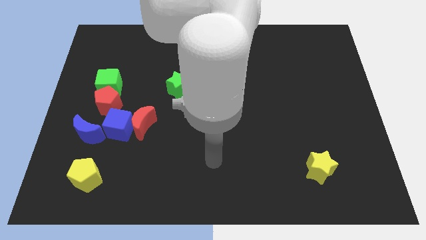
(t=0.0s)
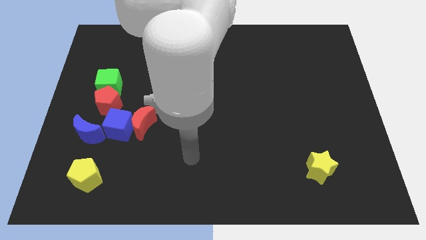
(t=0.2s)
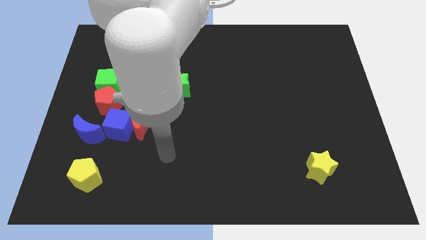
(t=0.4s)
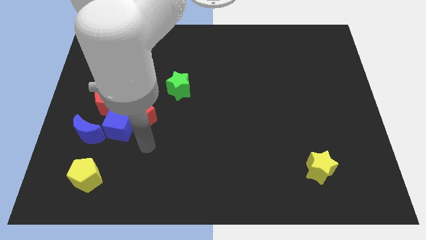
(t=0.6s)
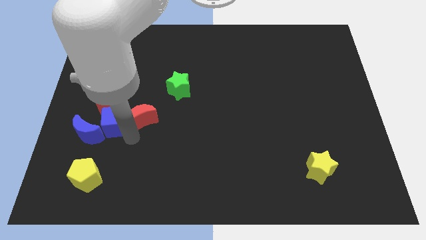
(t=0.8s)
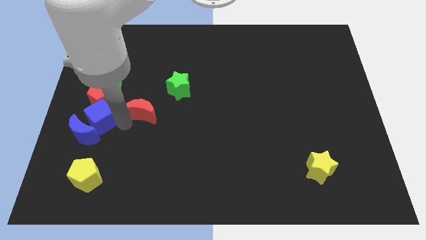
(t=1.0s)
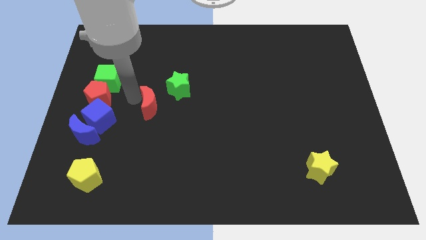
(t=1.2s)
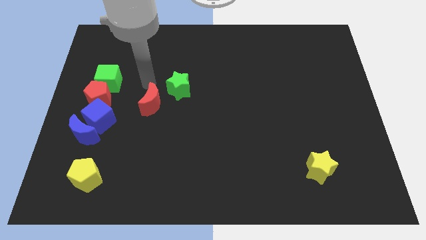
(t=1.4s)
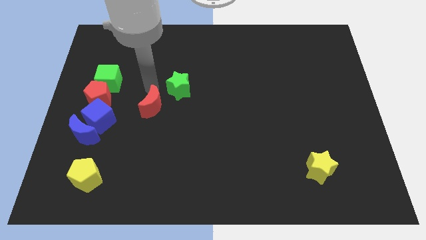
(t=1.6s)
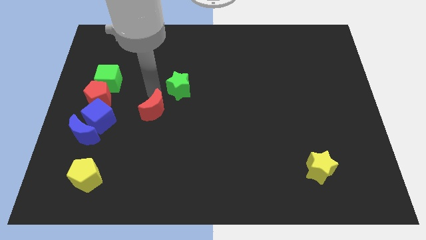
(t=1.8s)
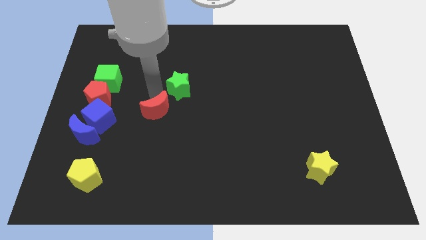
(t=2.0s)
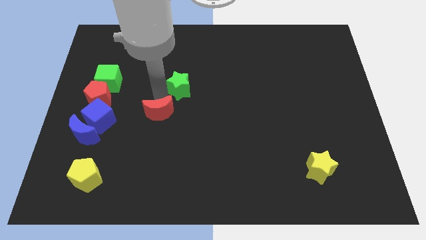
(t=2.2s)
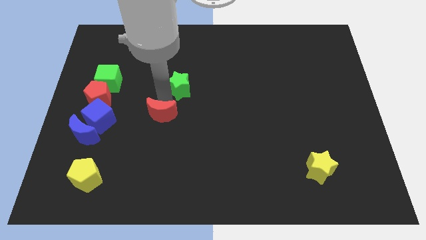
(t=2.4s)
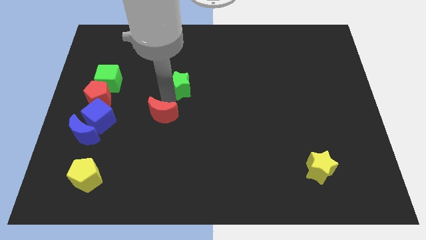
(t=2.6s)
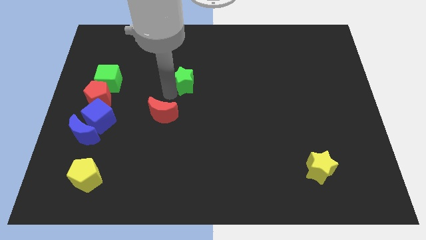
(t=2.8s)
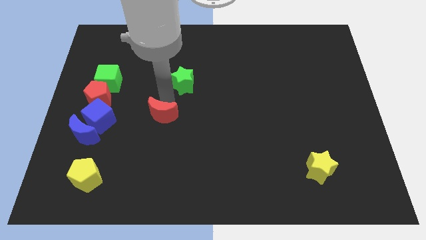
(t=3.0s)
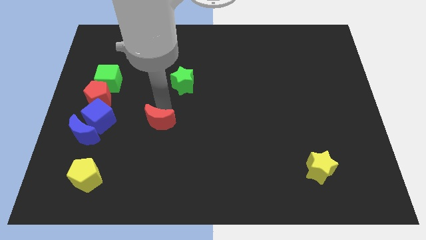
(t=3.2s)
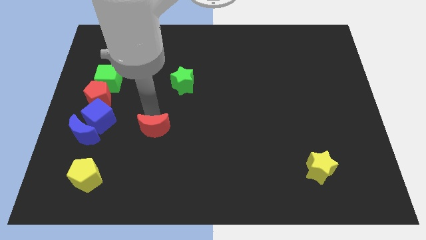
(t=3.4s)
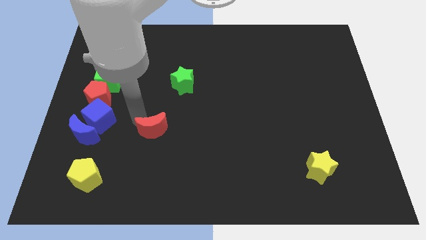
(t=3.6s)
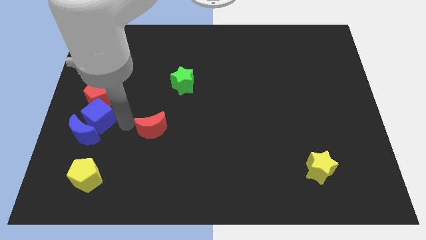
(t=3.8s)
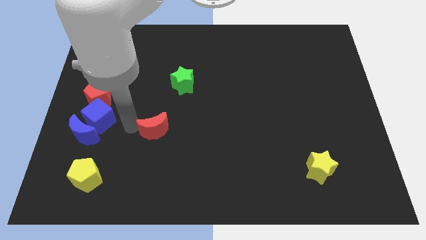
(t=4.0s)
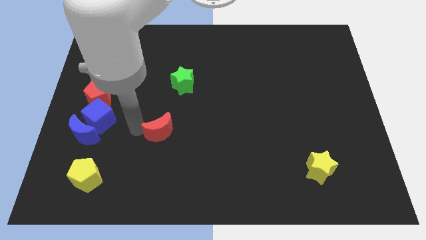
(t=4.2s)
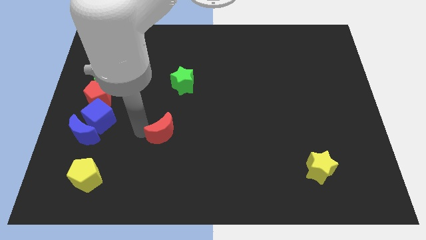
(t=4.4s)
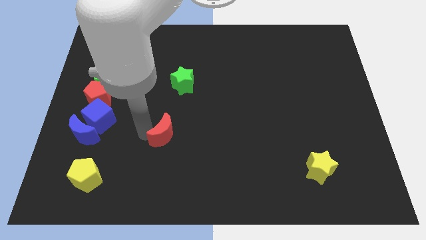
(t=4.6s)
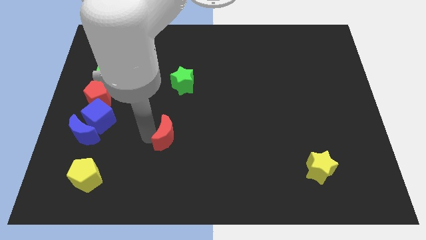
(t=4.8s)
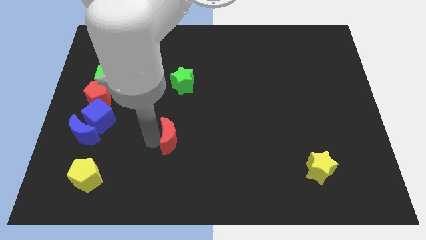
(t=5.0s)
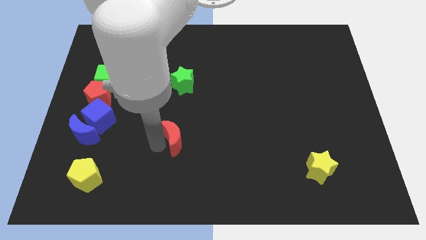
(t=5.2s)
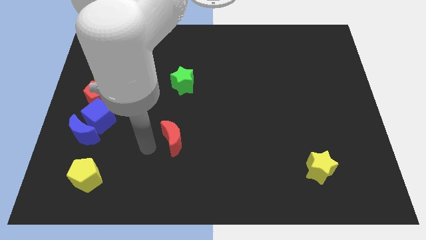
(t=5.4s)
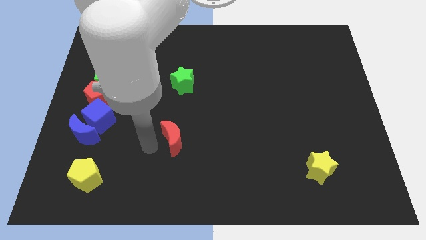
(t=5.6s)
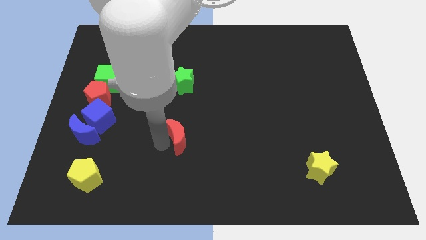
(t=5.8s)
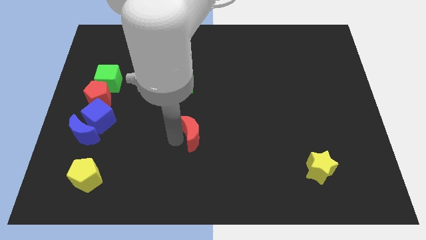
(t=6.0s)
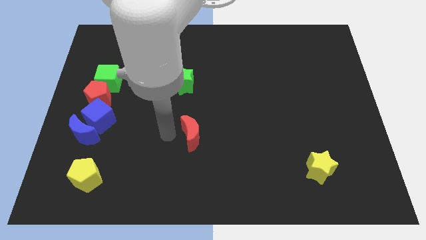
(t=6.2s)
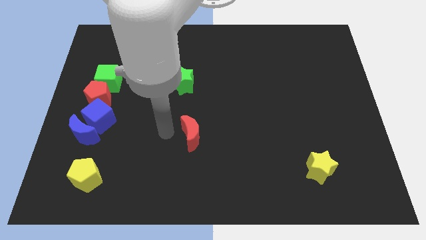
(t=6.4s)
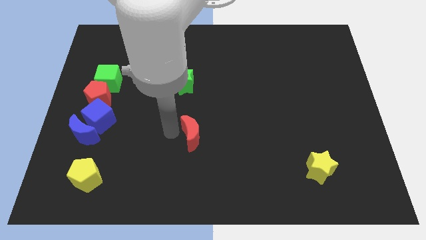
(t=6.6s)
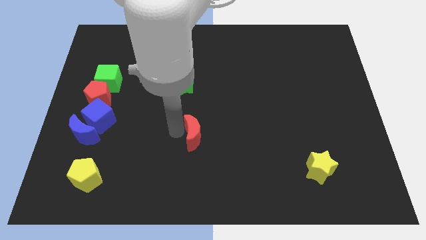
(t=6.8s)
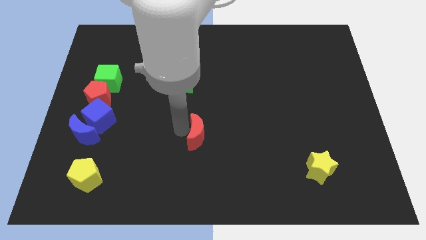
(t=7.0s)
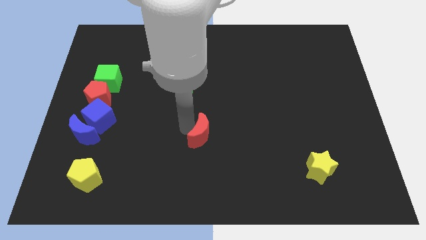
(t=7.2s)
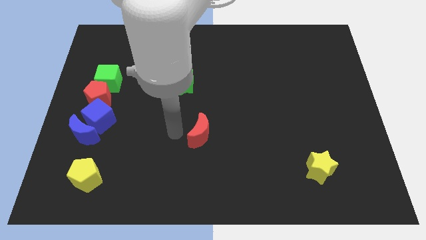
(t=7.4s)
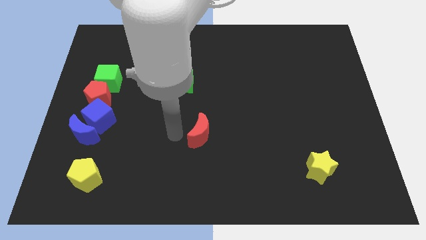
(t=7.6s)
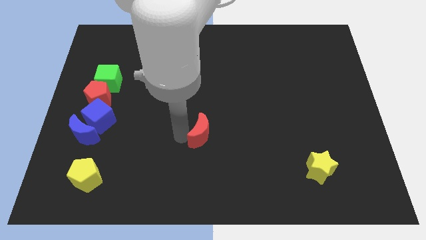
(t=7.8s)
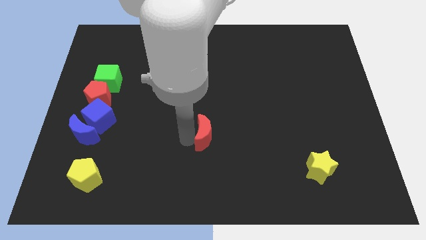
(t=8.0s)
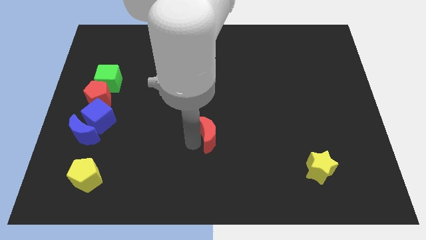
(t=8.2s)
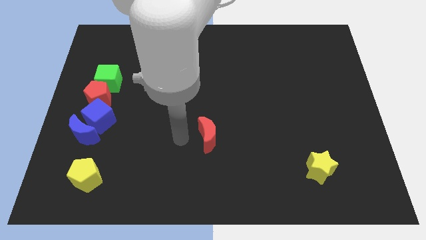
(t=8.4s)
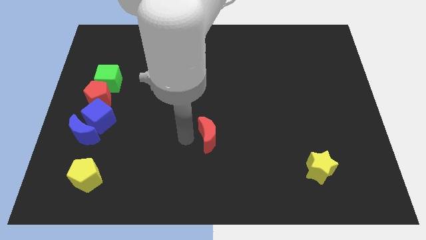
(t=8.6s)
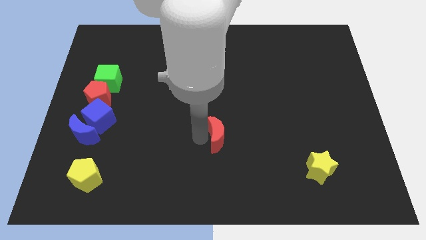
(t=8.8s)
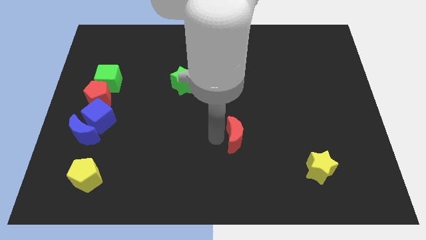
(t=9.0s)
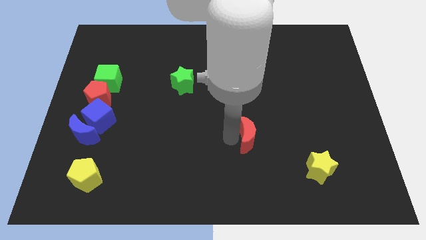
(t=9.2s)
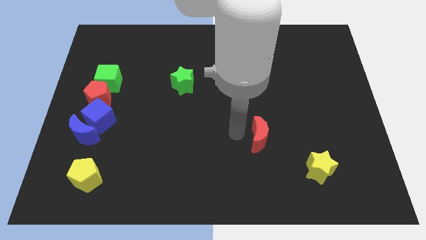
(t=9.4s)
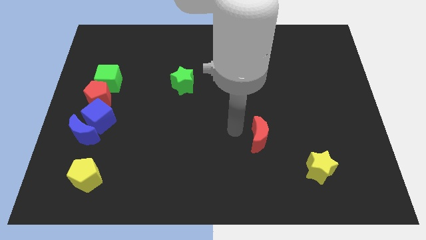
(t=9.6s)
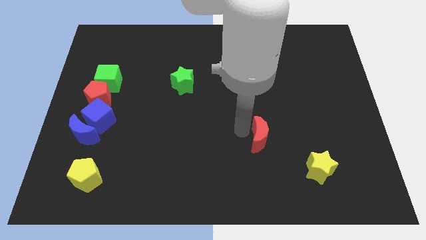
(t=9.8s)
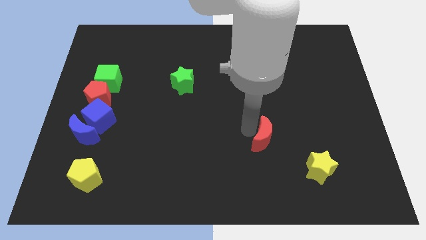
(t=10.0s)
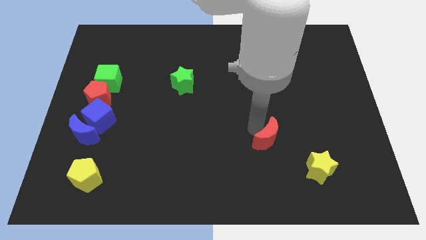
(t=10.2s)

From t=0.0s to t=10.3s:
move the red moon diagonally up and to the left of the yellow star

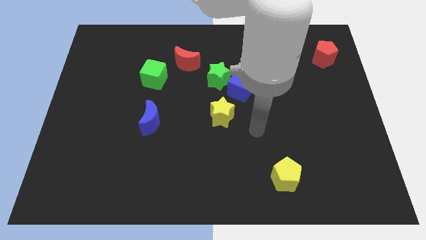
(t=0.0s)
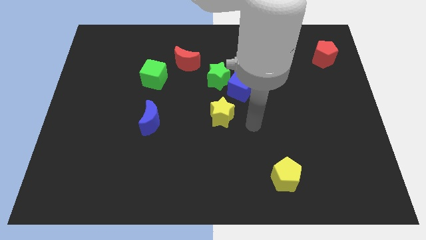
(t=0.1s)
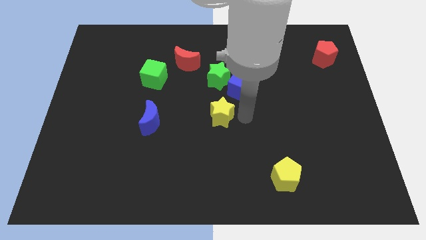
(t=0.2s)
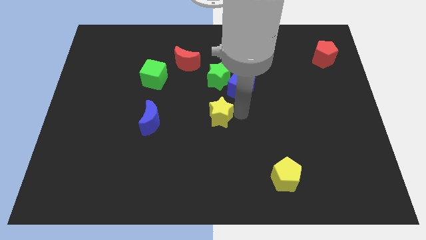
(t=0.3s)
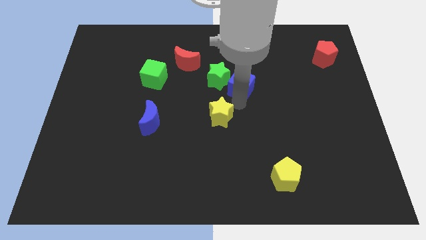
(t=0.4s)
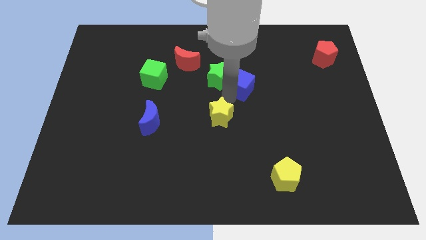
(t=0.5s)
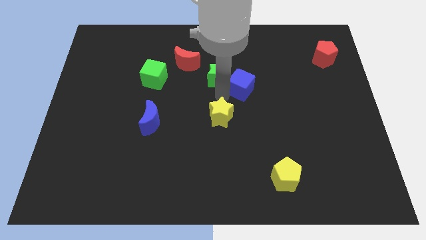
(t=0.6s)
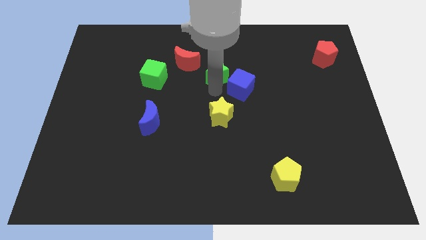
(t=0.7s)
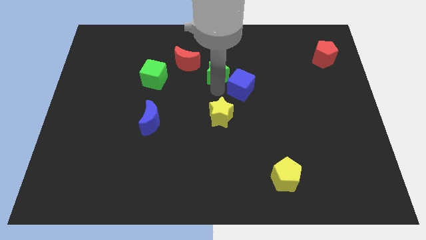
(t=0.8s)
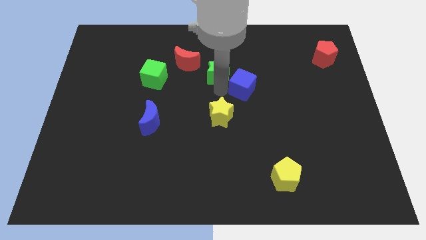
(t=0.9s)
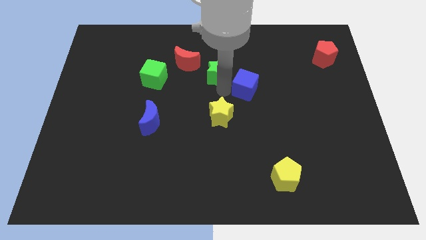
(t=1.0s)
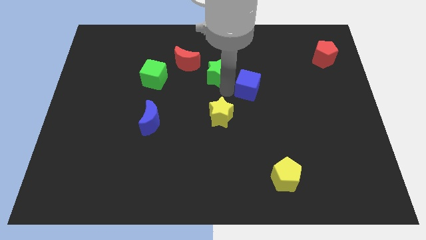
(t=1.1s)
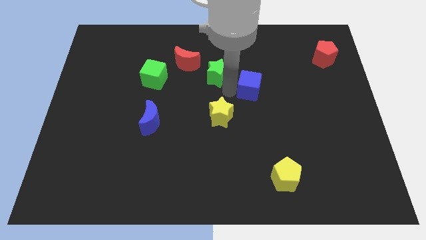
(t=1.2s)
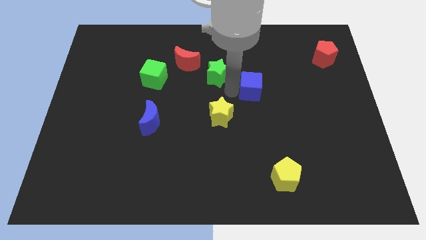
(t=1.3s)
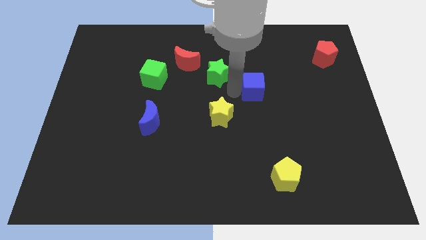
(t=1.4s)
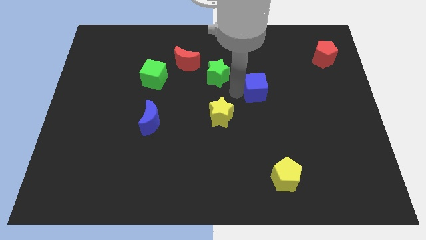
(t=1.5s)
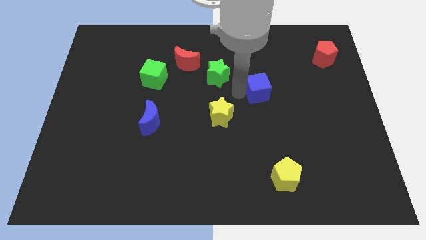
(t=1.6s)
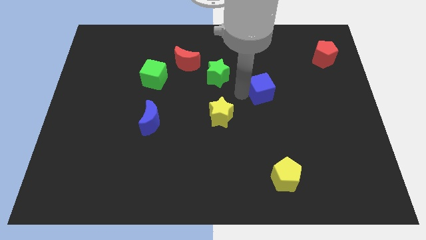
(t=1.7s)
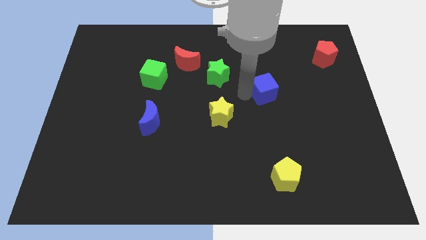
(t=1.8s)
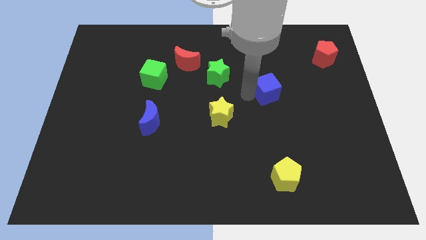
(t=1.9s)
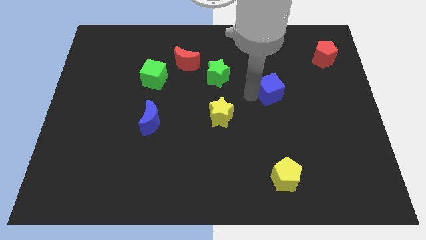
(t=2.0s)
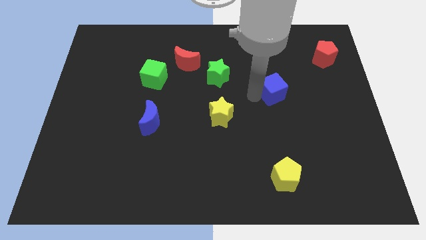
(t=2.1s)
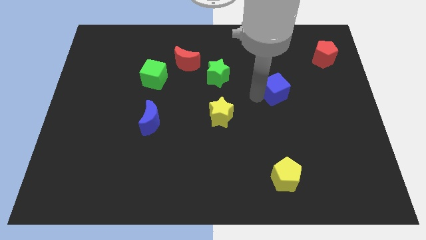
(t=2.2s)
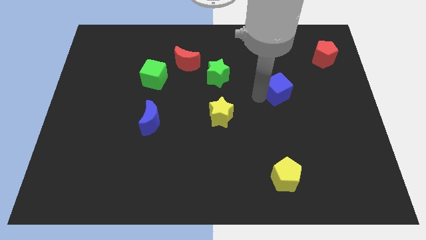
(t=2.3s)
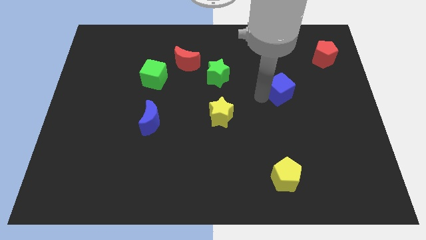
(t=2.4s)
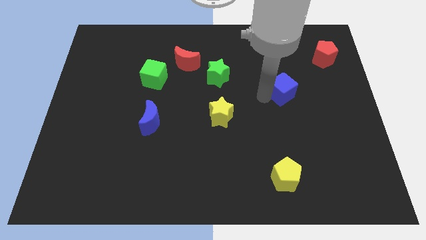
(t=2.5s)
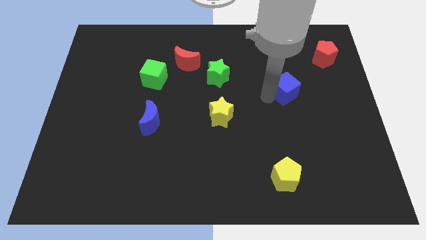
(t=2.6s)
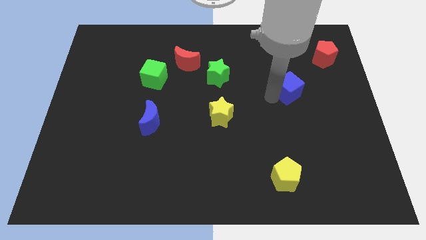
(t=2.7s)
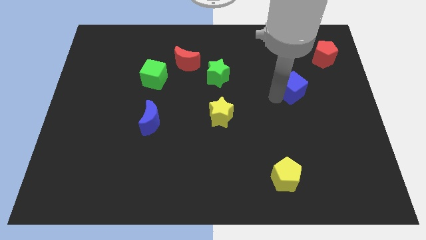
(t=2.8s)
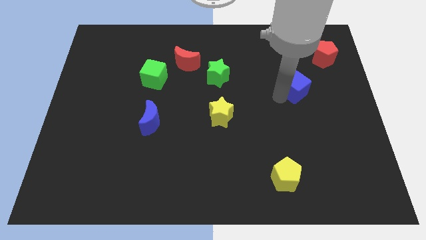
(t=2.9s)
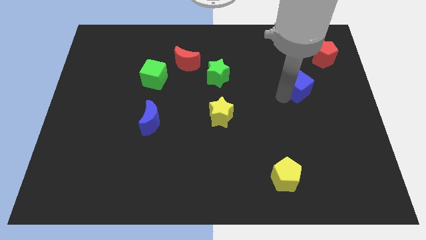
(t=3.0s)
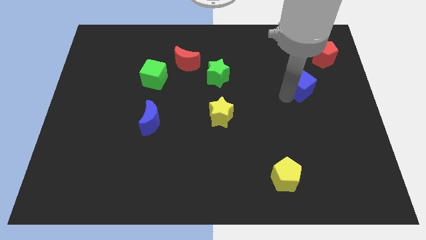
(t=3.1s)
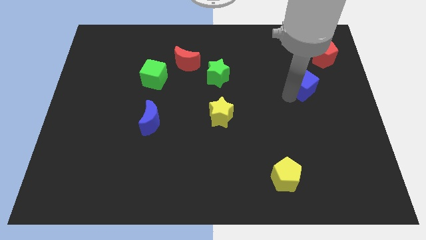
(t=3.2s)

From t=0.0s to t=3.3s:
put the blue cube diagonally down and to the left of the red pentagon
